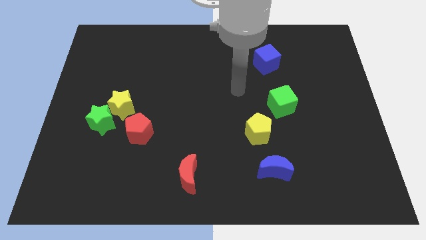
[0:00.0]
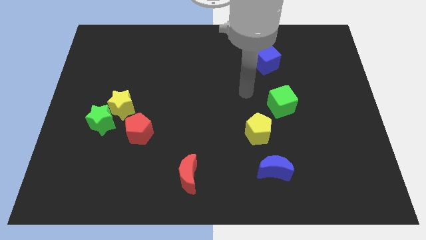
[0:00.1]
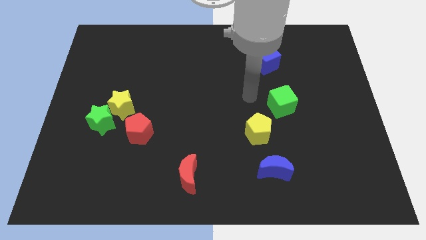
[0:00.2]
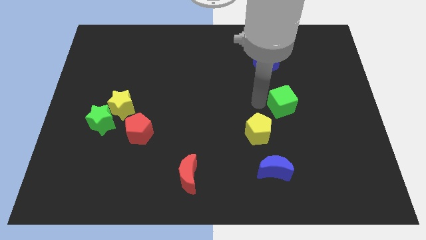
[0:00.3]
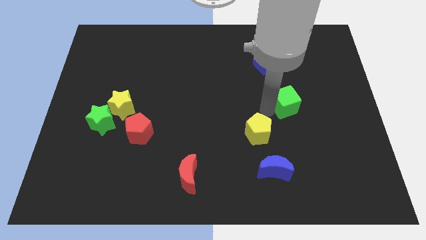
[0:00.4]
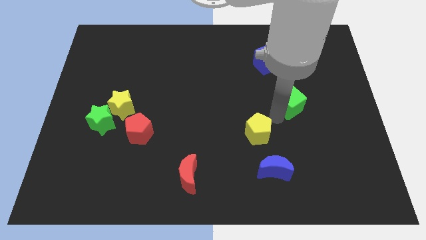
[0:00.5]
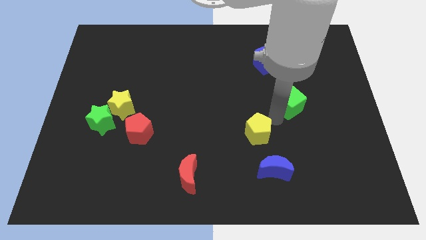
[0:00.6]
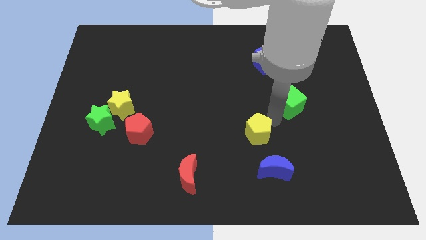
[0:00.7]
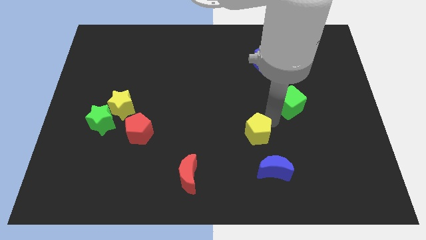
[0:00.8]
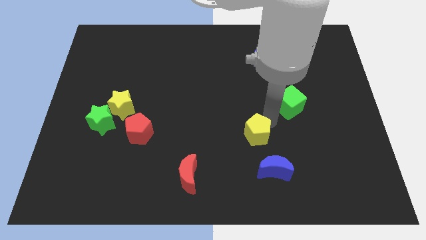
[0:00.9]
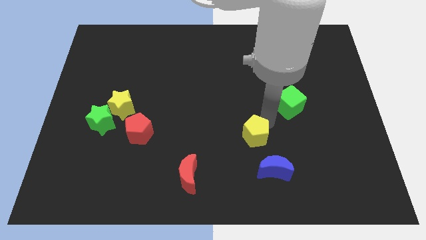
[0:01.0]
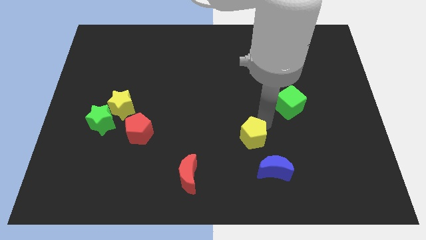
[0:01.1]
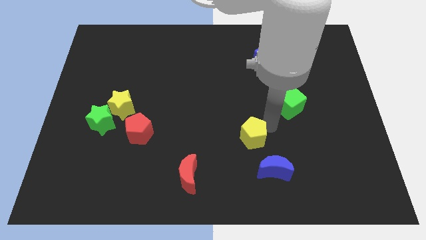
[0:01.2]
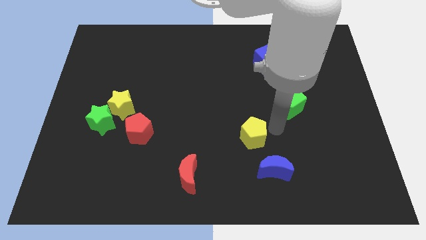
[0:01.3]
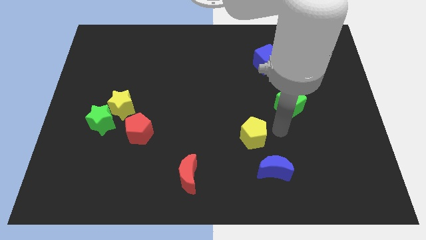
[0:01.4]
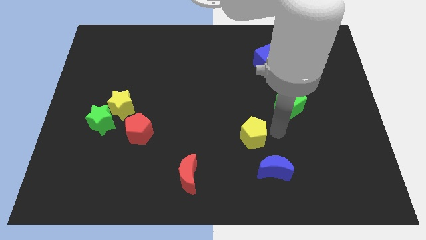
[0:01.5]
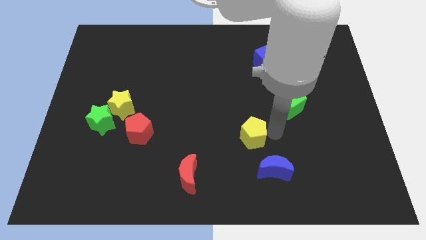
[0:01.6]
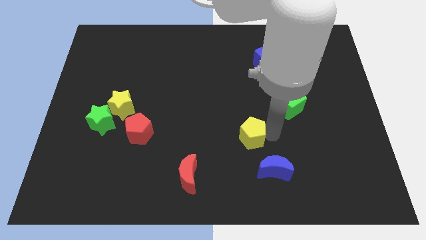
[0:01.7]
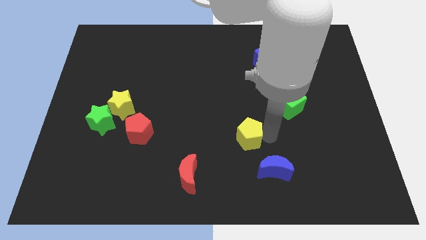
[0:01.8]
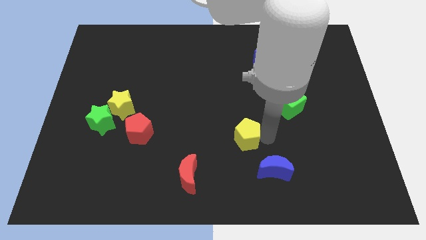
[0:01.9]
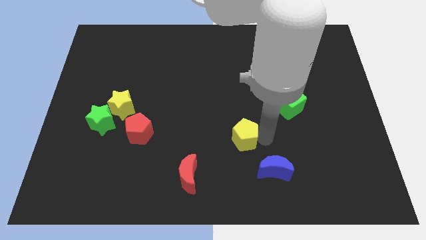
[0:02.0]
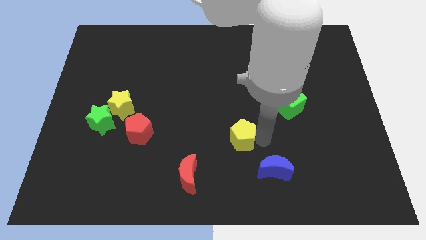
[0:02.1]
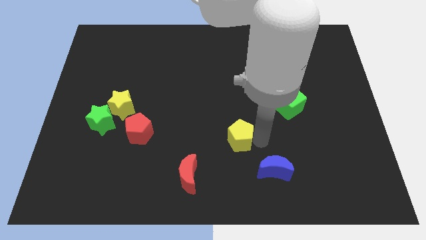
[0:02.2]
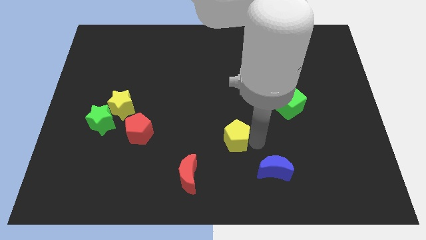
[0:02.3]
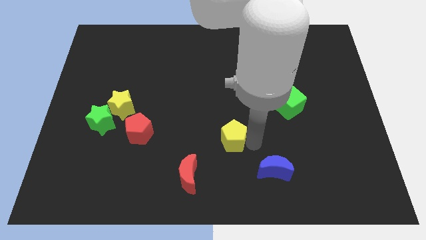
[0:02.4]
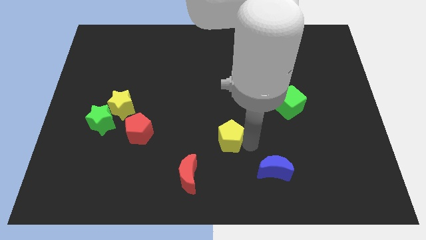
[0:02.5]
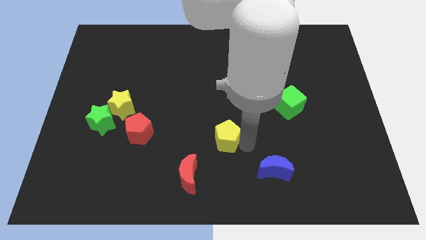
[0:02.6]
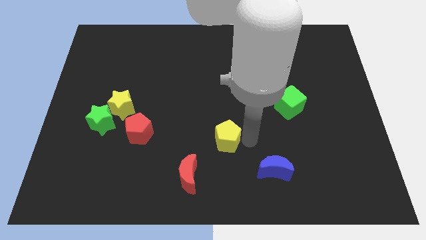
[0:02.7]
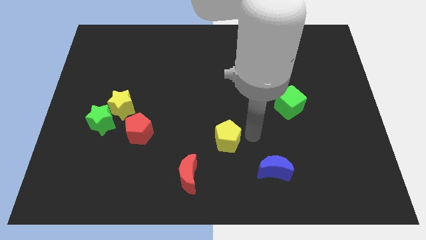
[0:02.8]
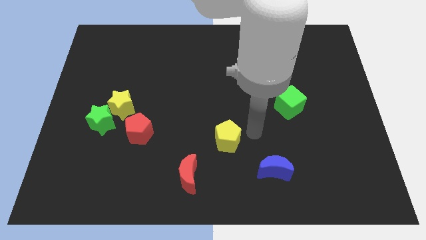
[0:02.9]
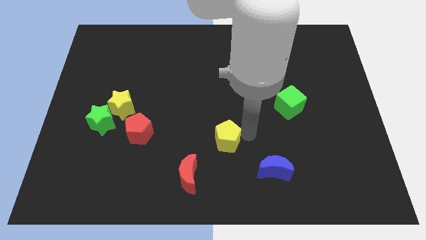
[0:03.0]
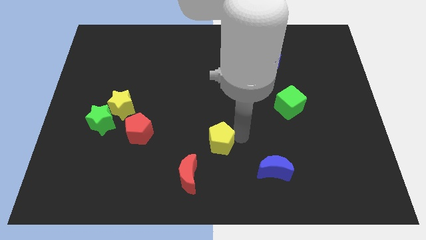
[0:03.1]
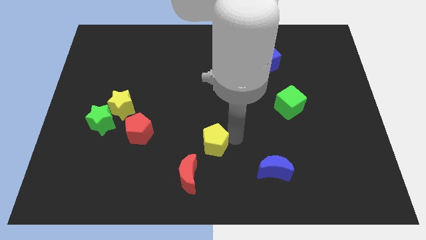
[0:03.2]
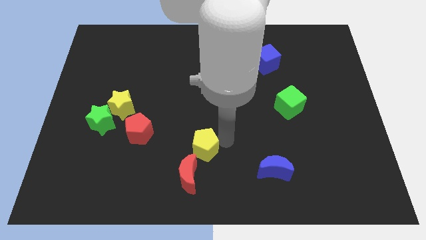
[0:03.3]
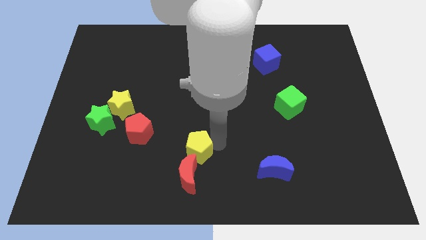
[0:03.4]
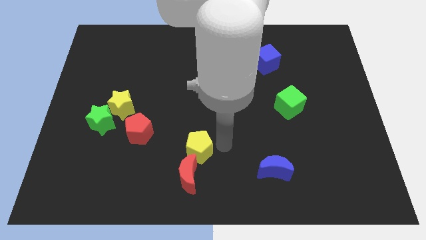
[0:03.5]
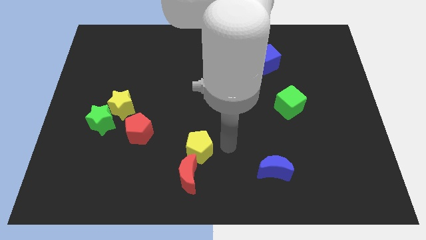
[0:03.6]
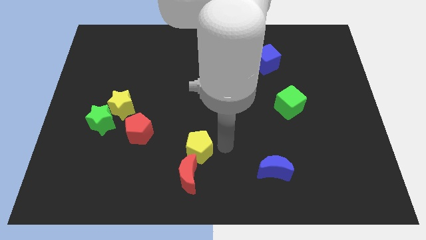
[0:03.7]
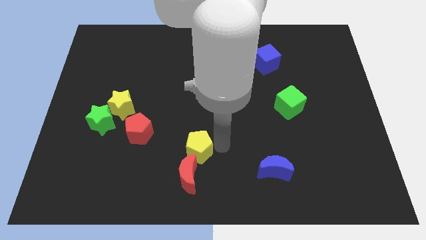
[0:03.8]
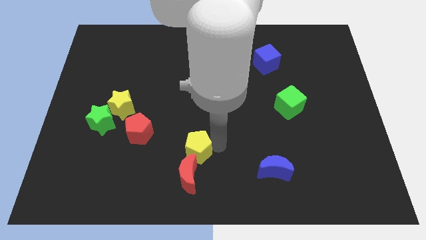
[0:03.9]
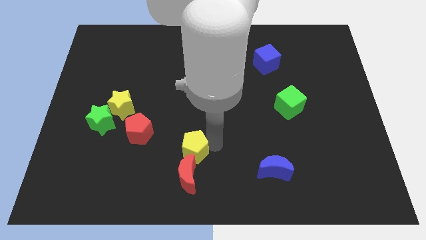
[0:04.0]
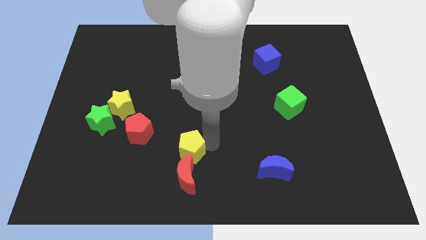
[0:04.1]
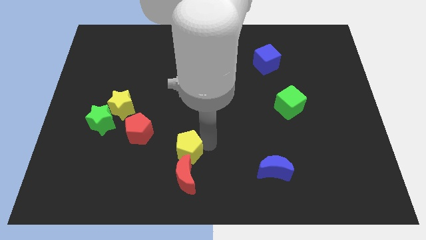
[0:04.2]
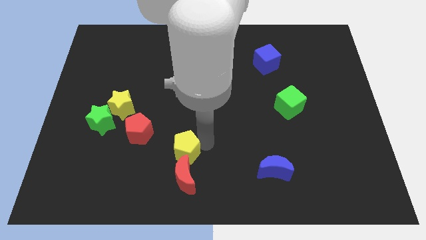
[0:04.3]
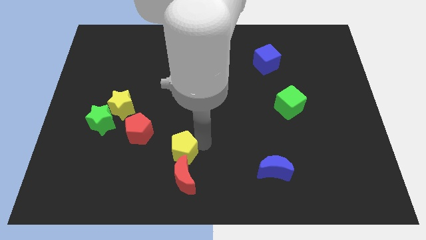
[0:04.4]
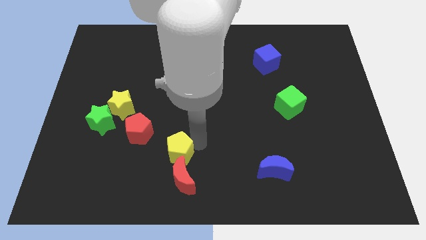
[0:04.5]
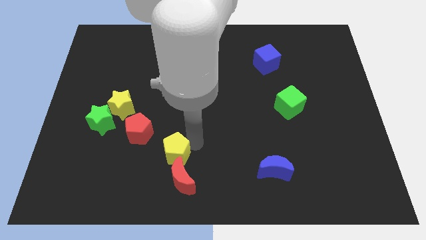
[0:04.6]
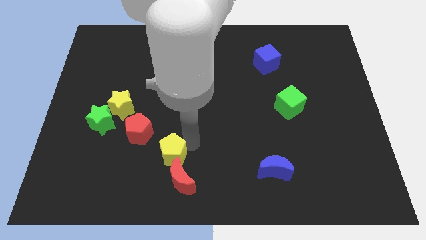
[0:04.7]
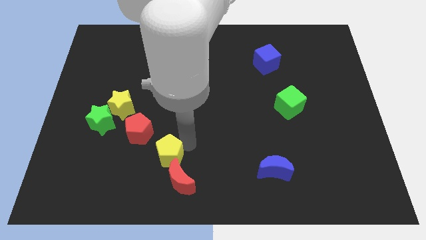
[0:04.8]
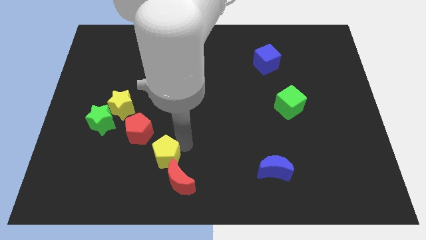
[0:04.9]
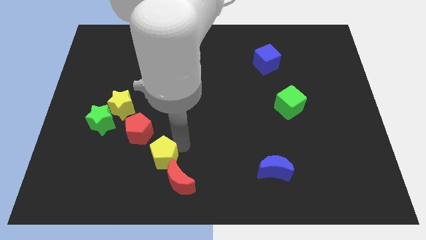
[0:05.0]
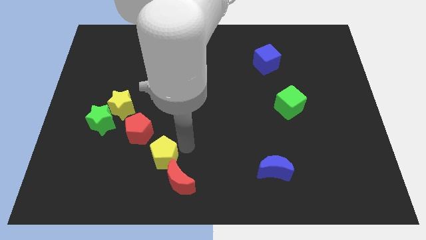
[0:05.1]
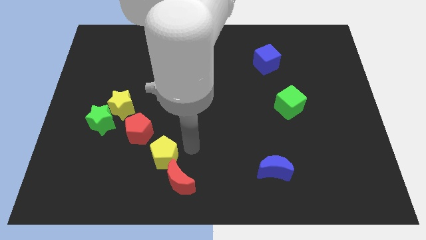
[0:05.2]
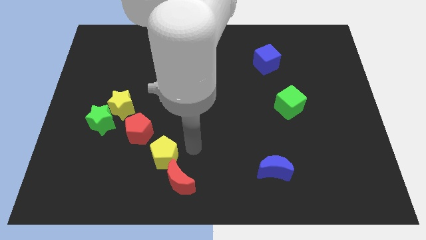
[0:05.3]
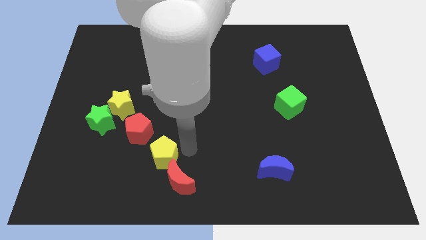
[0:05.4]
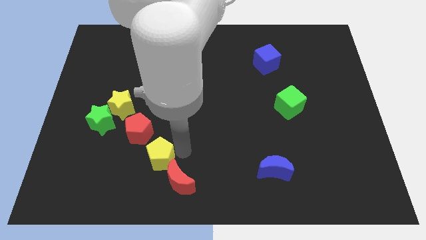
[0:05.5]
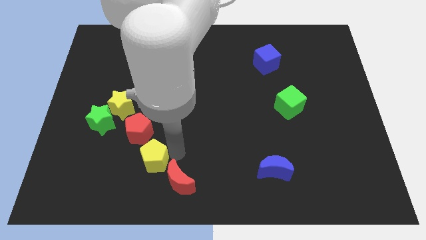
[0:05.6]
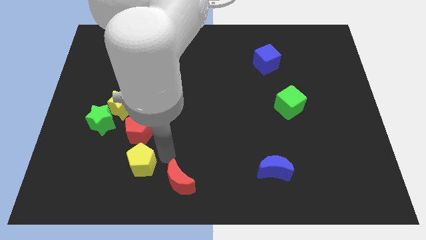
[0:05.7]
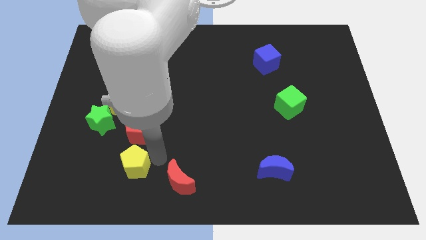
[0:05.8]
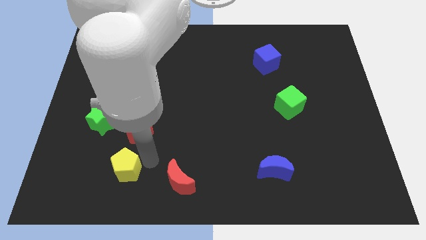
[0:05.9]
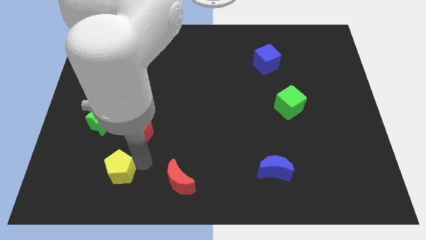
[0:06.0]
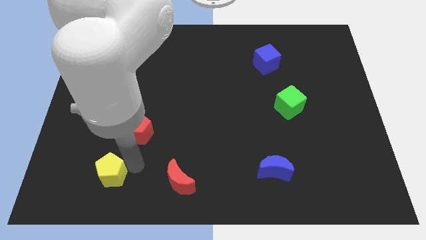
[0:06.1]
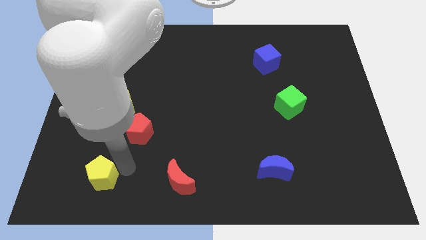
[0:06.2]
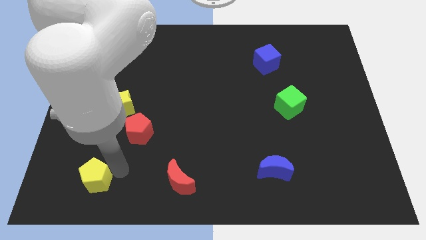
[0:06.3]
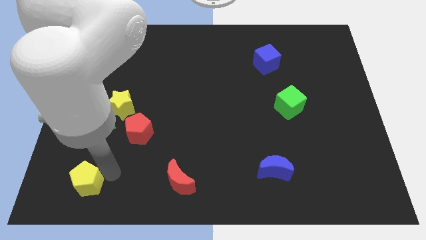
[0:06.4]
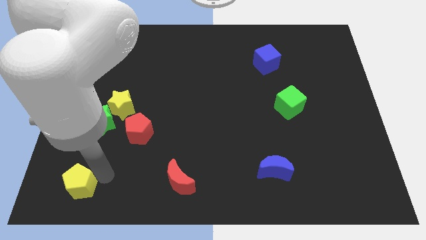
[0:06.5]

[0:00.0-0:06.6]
push the yellow pentagon to the bottom left of the board
